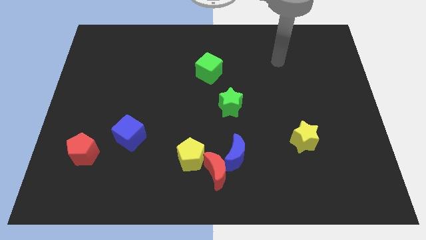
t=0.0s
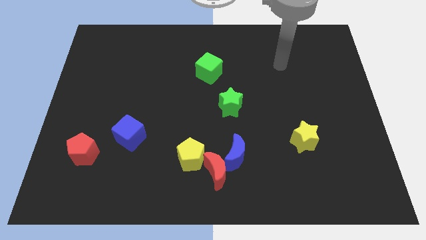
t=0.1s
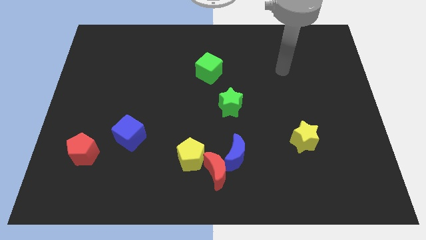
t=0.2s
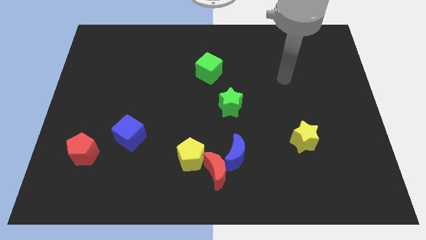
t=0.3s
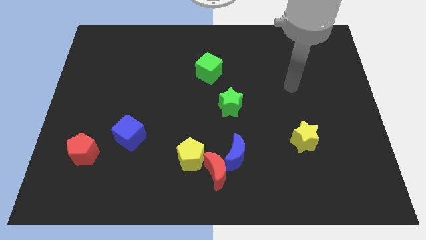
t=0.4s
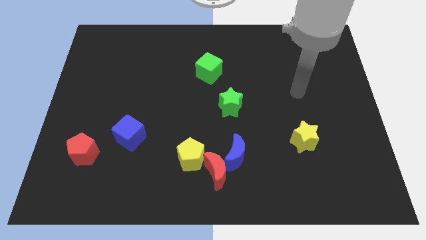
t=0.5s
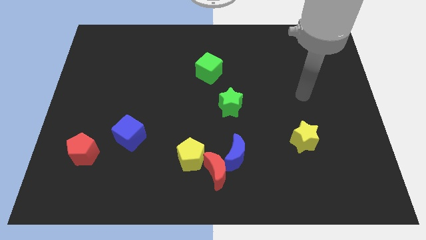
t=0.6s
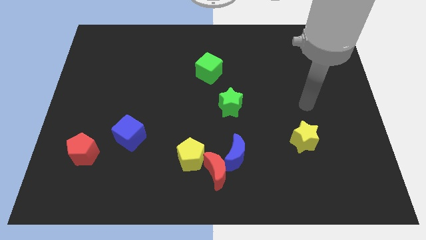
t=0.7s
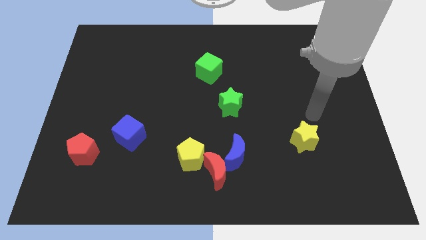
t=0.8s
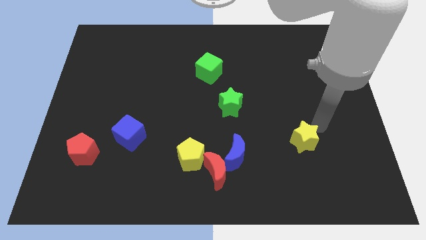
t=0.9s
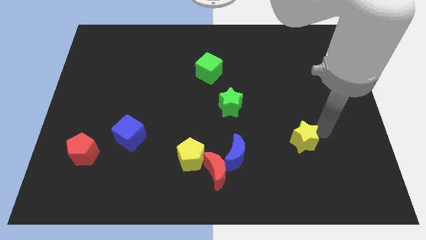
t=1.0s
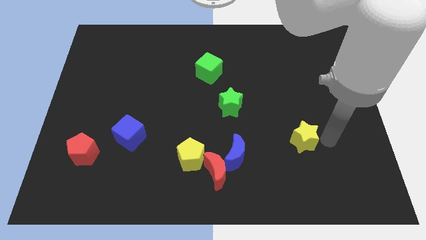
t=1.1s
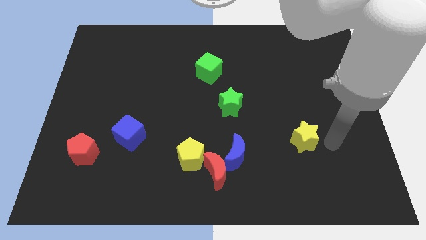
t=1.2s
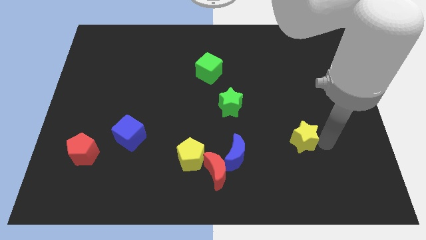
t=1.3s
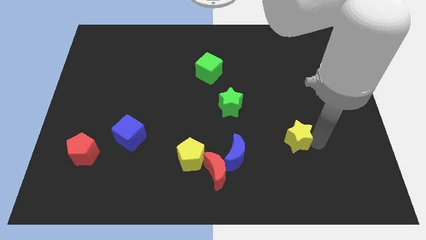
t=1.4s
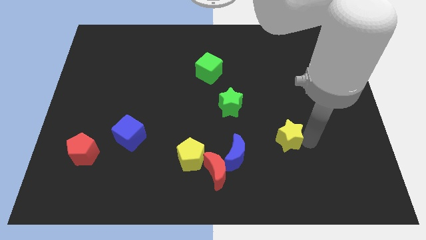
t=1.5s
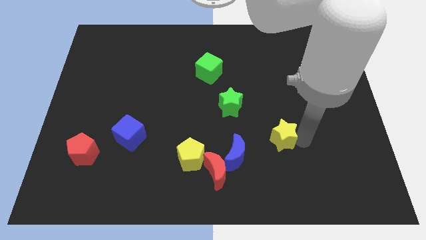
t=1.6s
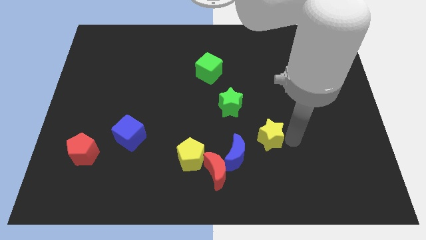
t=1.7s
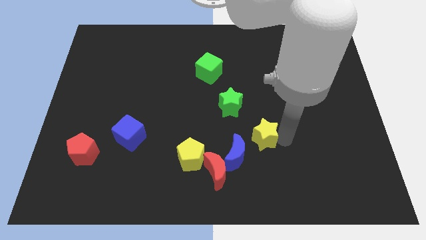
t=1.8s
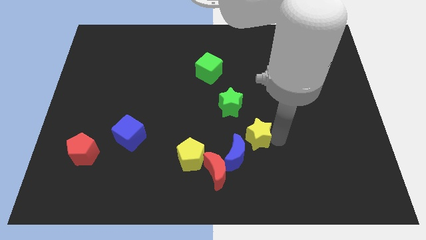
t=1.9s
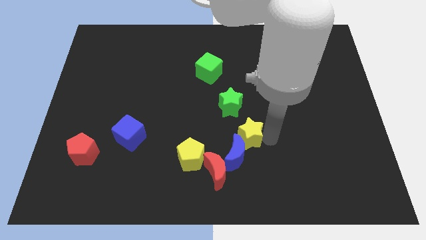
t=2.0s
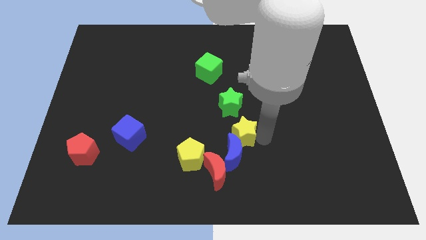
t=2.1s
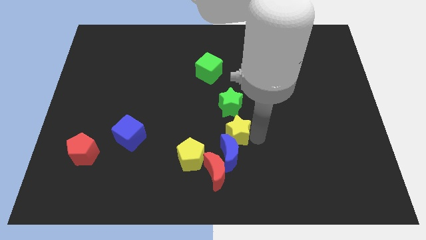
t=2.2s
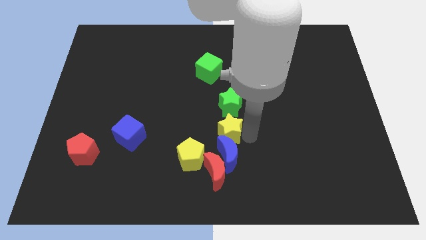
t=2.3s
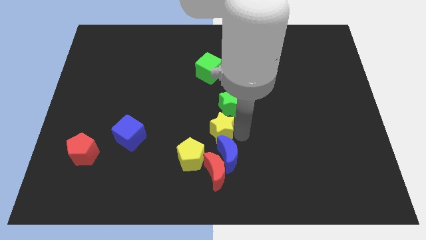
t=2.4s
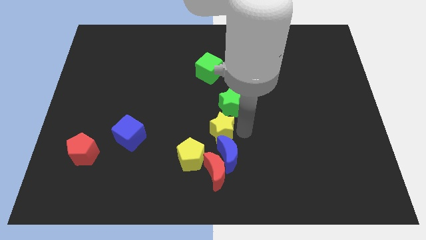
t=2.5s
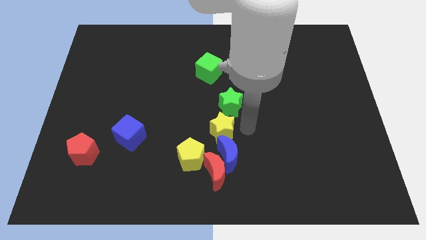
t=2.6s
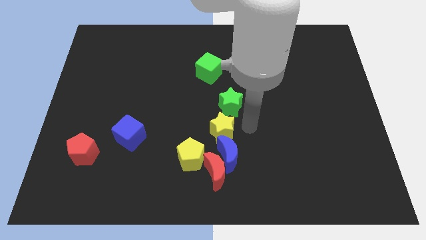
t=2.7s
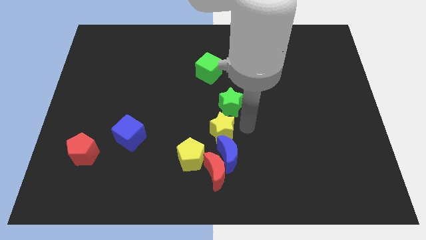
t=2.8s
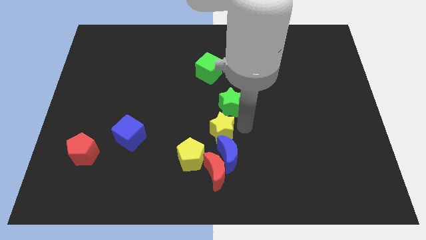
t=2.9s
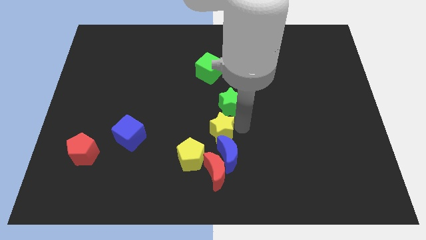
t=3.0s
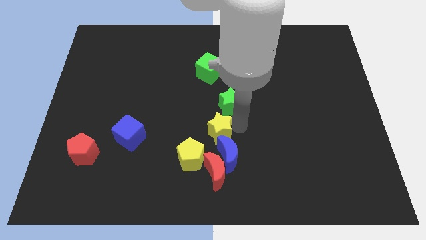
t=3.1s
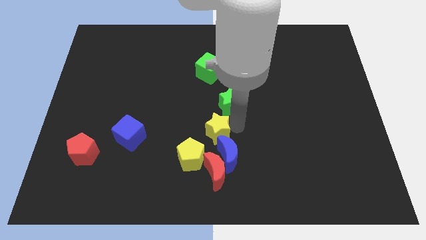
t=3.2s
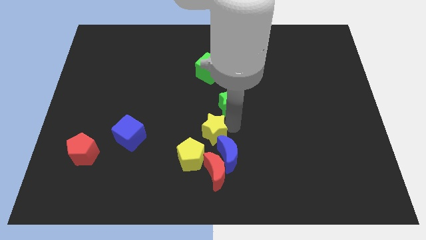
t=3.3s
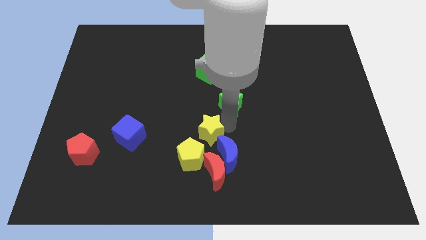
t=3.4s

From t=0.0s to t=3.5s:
push the yellow star to the left

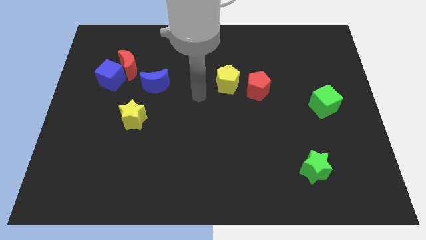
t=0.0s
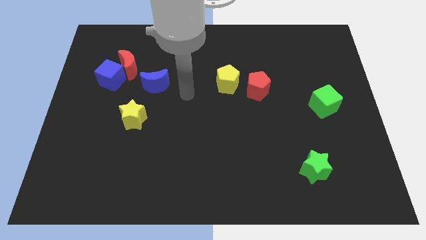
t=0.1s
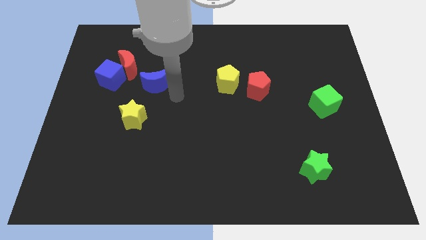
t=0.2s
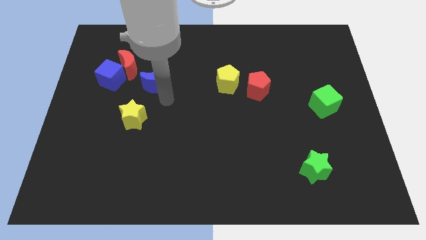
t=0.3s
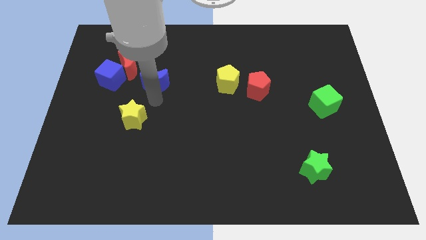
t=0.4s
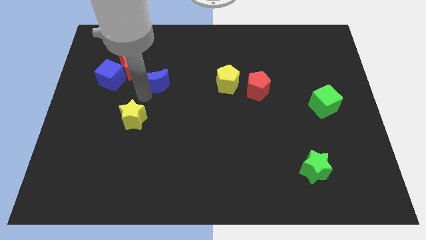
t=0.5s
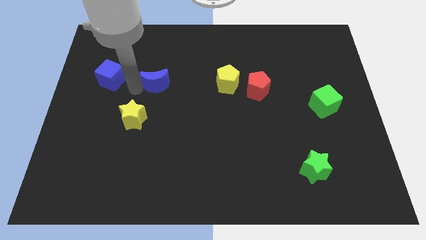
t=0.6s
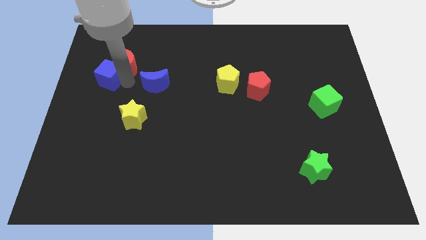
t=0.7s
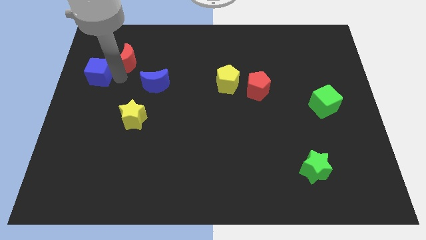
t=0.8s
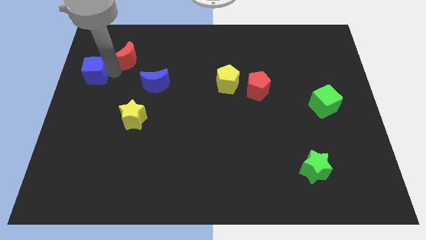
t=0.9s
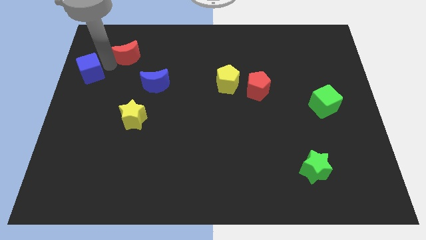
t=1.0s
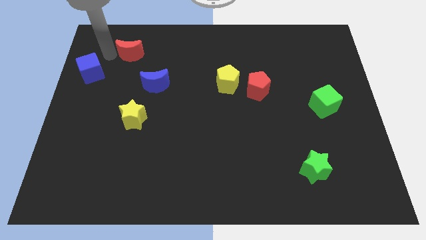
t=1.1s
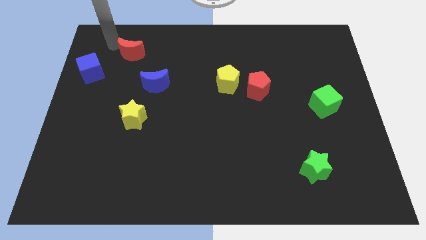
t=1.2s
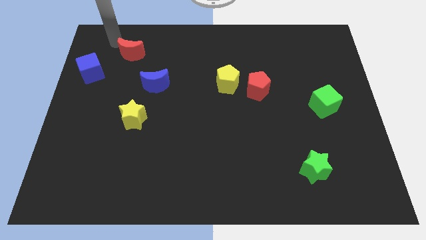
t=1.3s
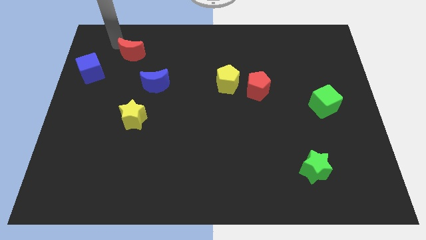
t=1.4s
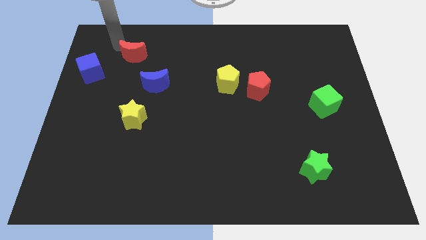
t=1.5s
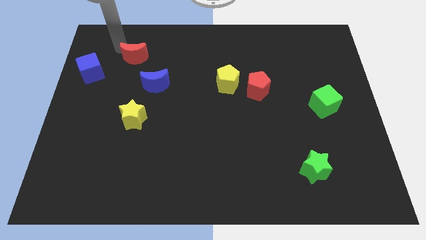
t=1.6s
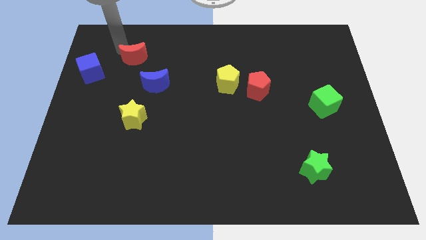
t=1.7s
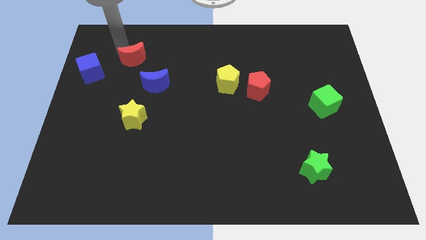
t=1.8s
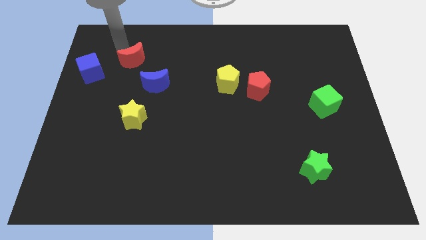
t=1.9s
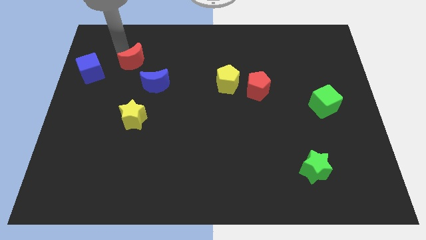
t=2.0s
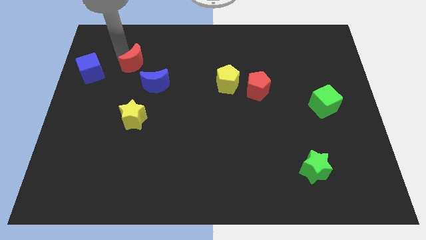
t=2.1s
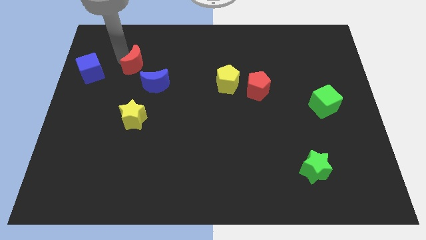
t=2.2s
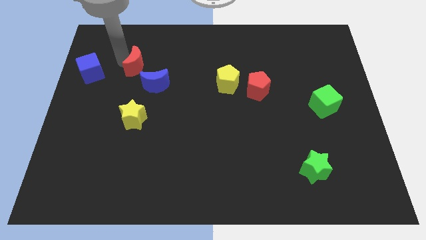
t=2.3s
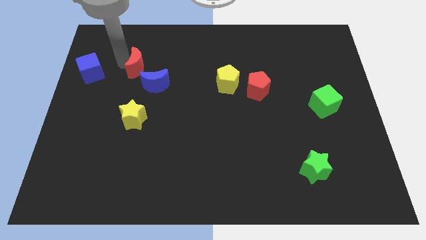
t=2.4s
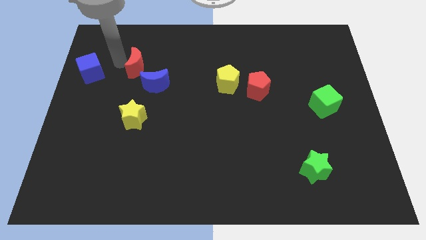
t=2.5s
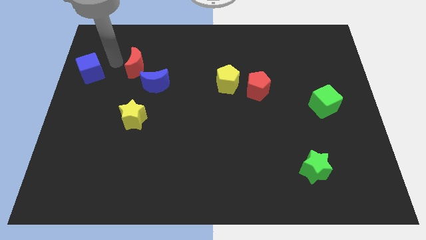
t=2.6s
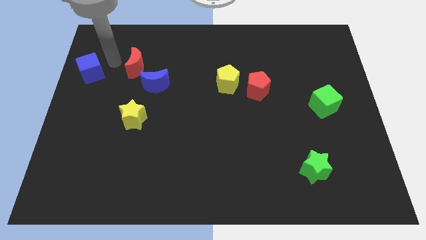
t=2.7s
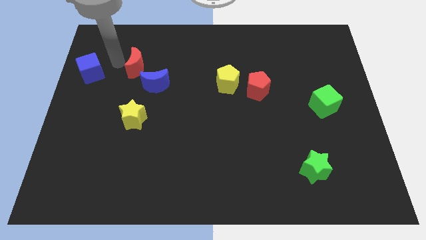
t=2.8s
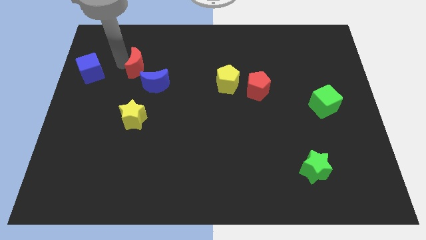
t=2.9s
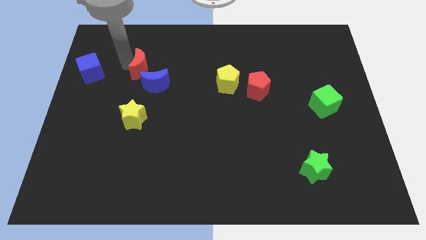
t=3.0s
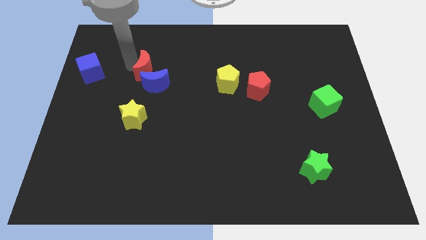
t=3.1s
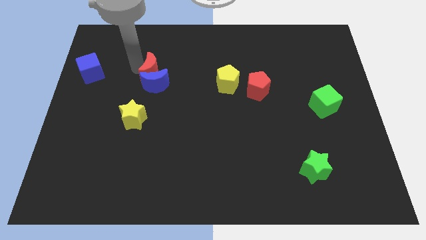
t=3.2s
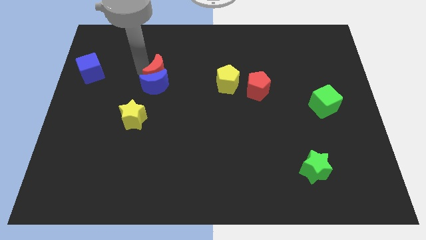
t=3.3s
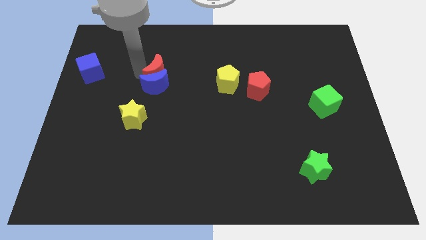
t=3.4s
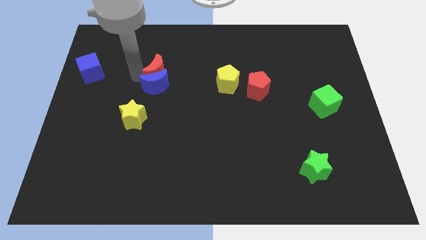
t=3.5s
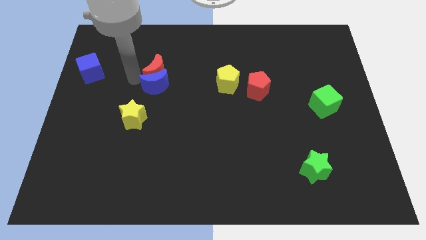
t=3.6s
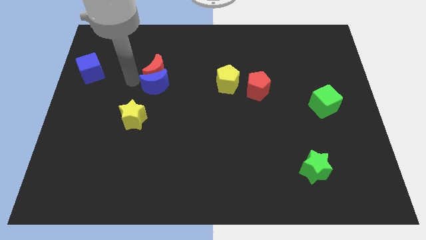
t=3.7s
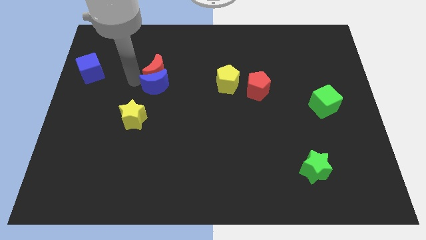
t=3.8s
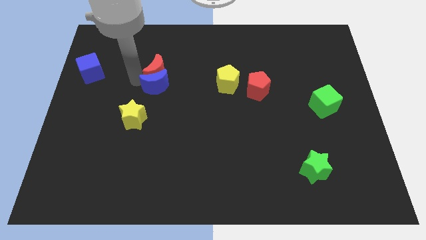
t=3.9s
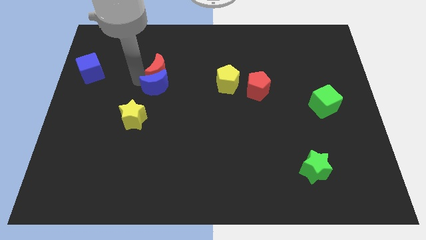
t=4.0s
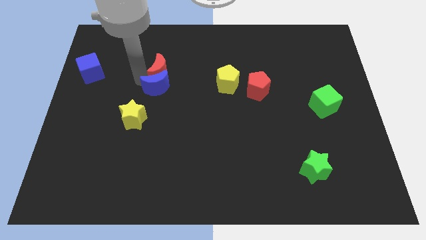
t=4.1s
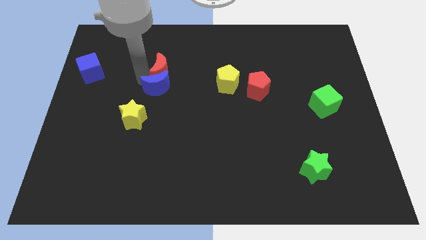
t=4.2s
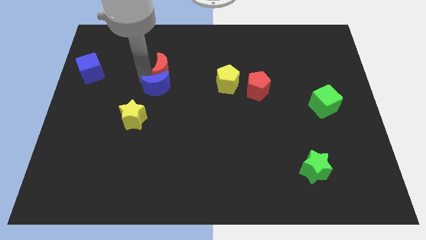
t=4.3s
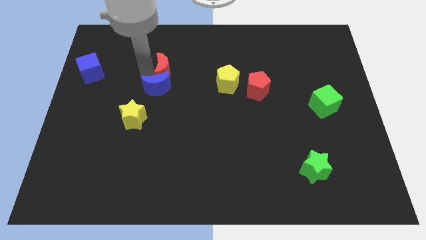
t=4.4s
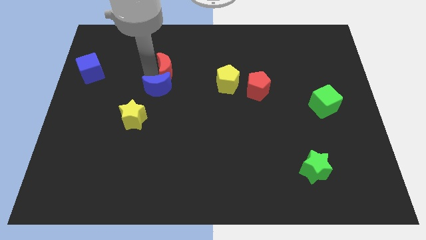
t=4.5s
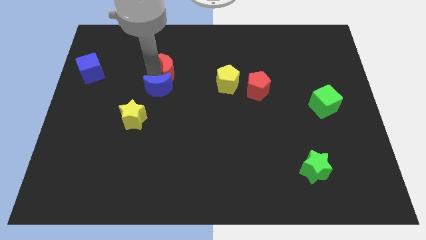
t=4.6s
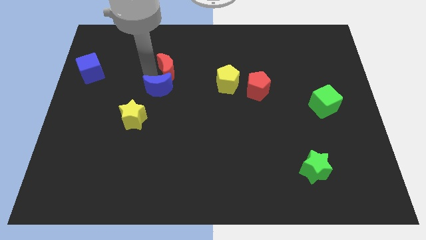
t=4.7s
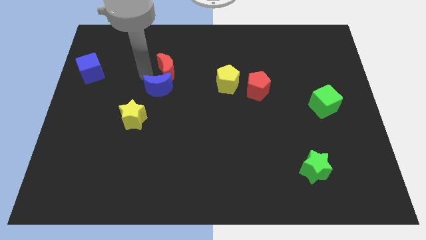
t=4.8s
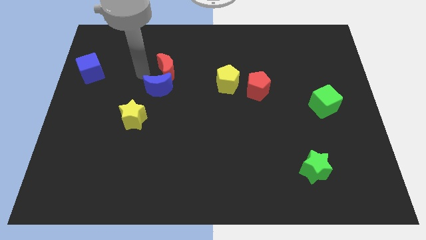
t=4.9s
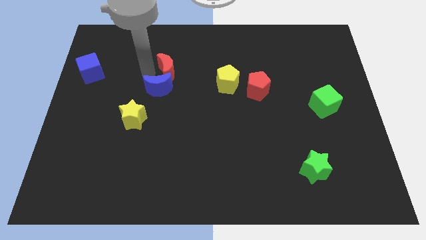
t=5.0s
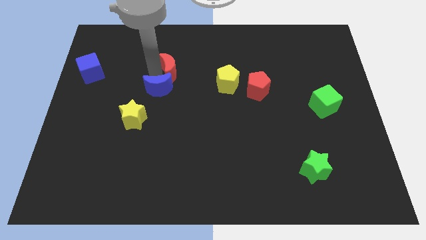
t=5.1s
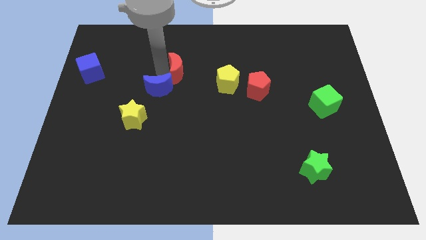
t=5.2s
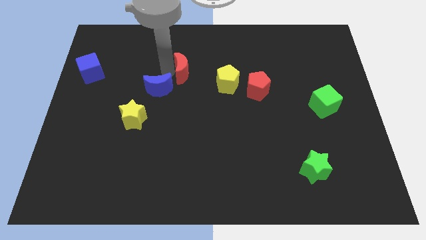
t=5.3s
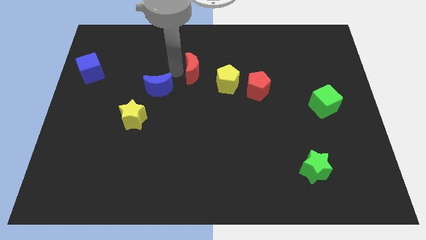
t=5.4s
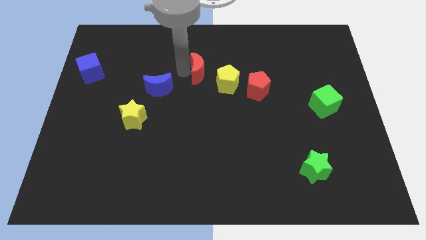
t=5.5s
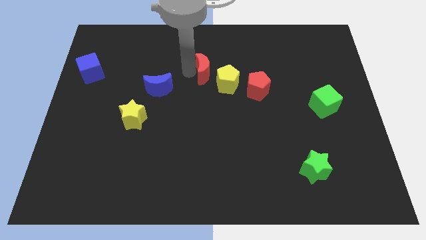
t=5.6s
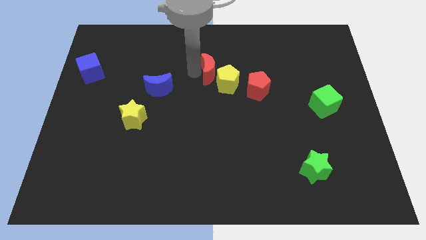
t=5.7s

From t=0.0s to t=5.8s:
move the red moon right
